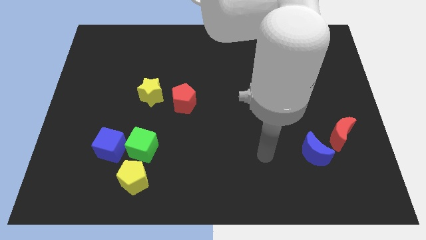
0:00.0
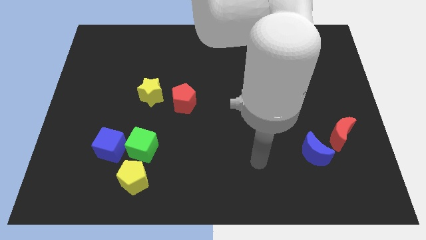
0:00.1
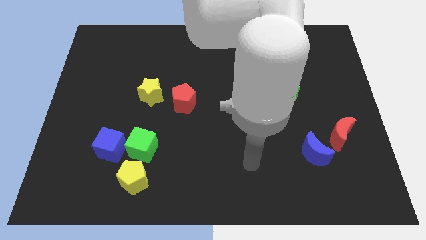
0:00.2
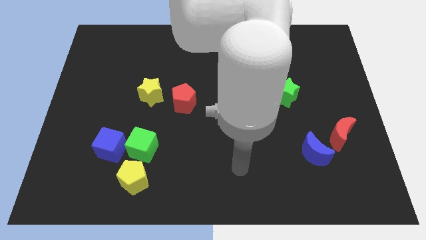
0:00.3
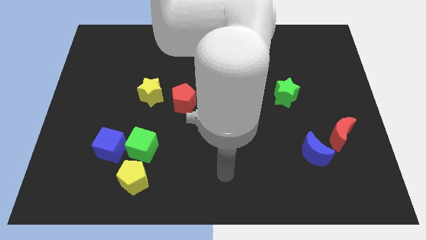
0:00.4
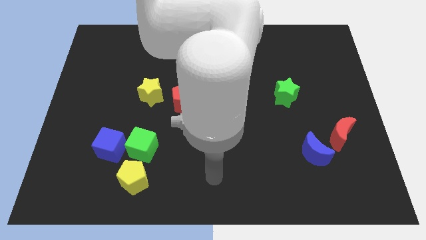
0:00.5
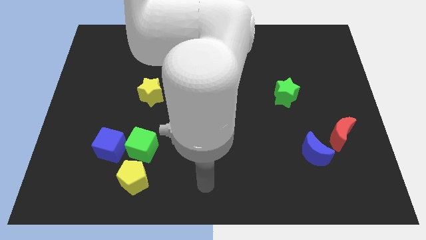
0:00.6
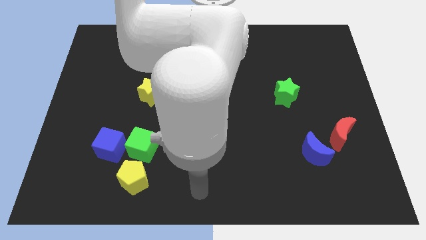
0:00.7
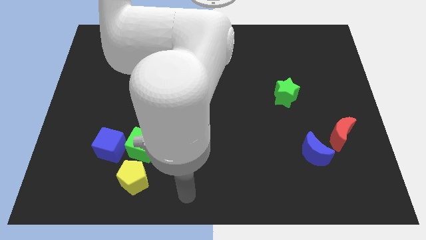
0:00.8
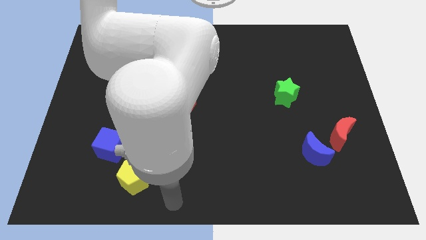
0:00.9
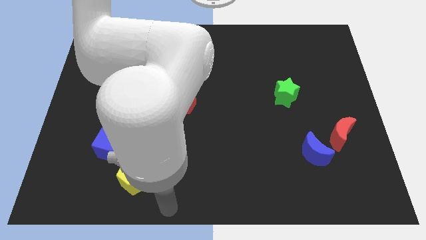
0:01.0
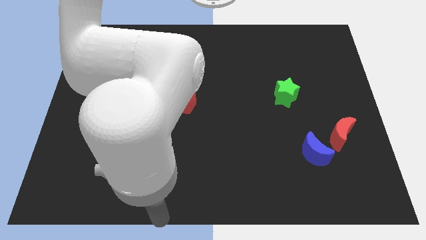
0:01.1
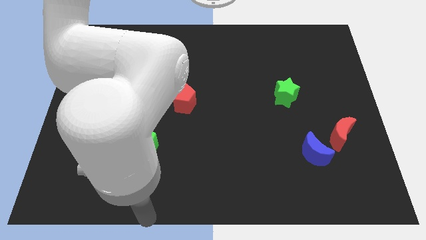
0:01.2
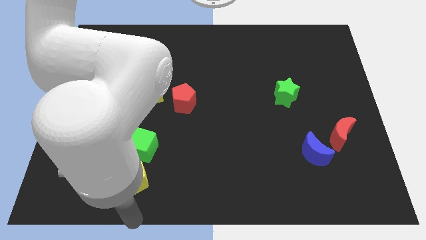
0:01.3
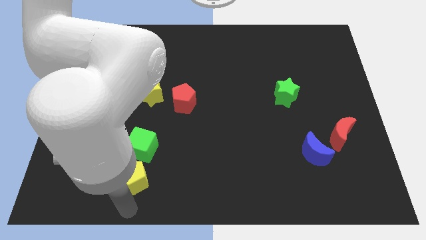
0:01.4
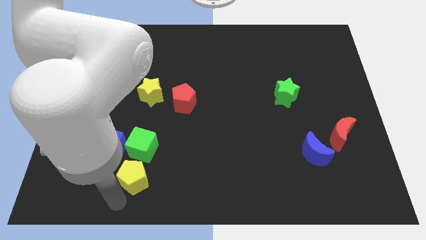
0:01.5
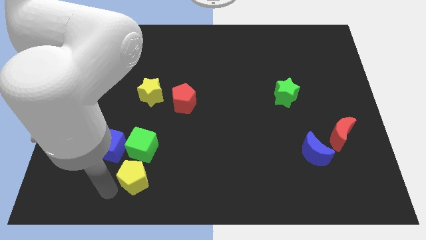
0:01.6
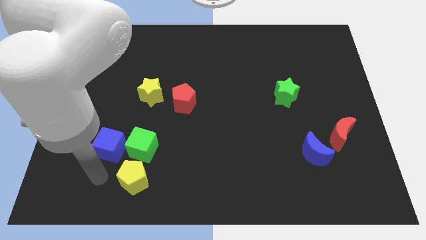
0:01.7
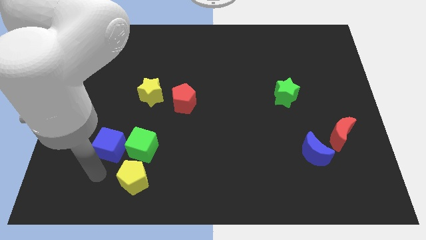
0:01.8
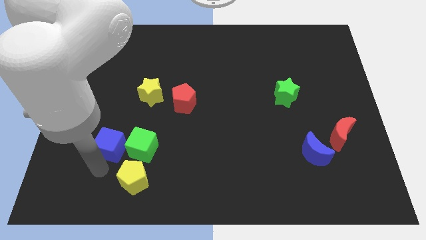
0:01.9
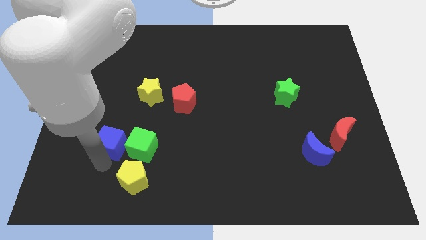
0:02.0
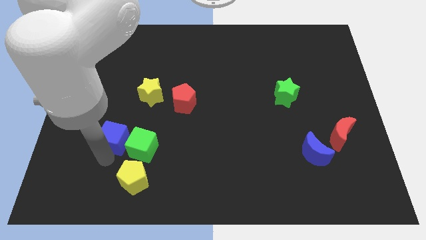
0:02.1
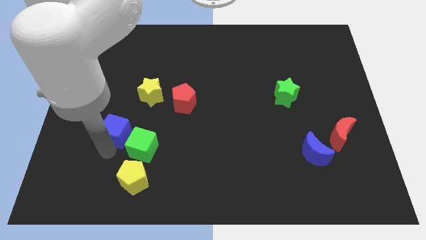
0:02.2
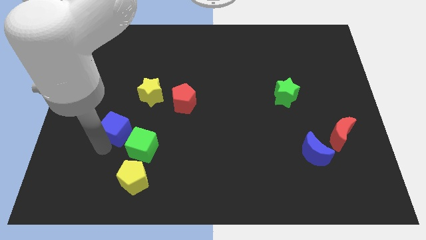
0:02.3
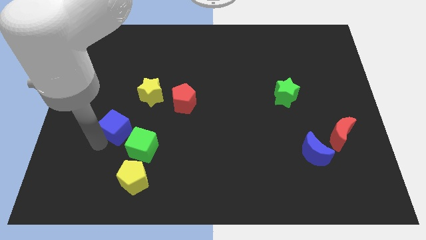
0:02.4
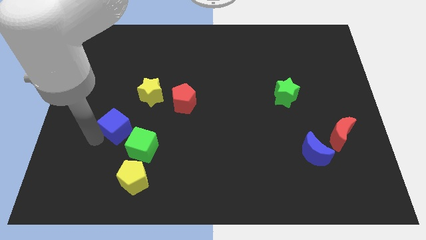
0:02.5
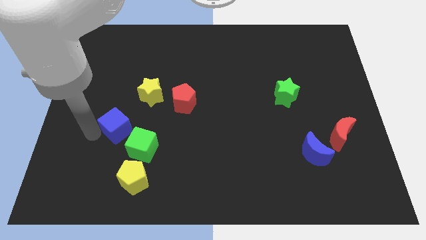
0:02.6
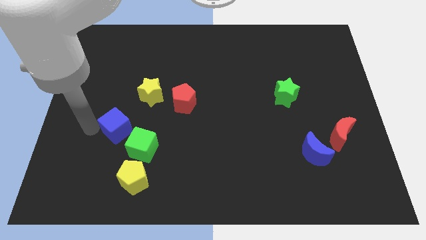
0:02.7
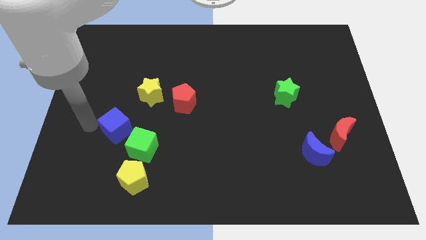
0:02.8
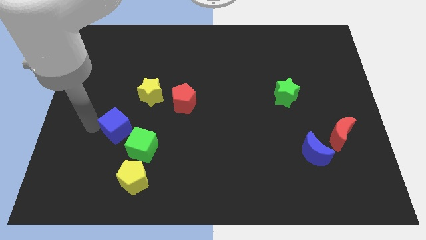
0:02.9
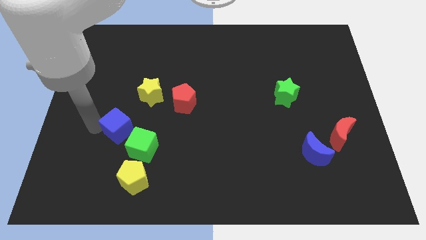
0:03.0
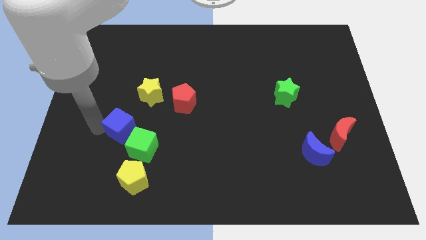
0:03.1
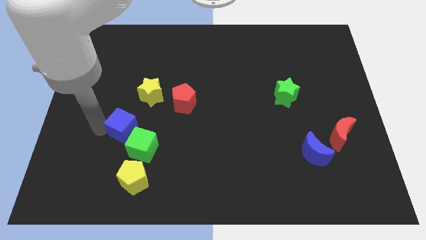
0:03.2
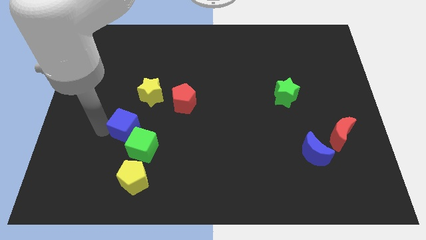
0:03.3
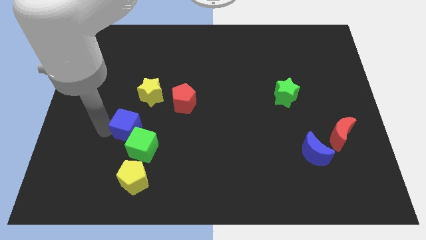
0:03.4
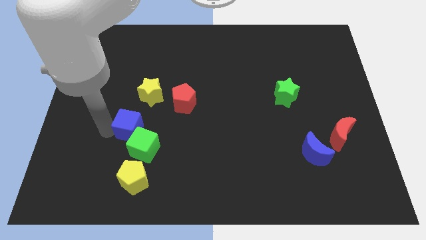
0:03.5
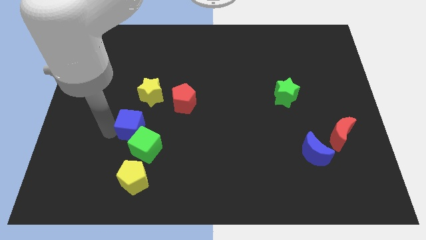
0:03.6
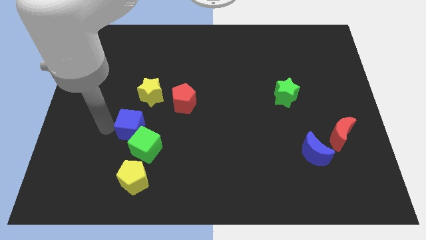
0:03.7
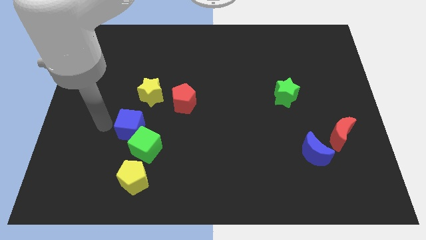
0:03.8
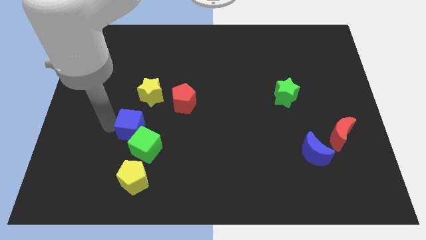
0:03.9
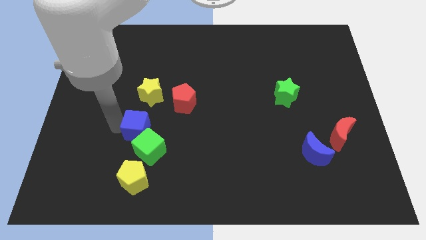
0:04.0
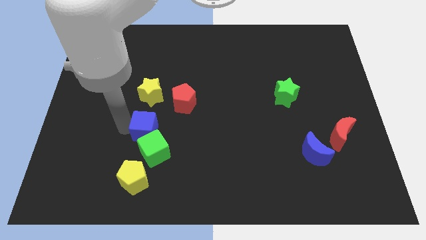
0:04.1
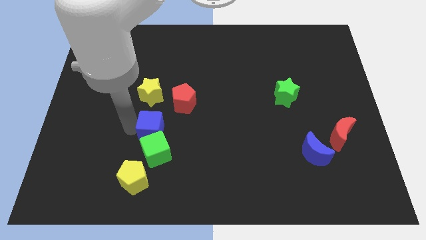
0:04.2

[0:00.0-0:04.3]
slide the blue cube right a bit

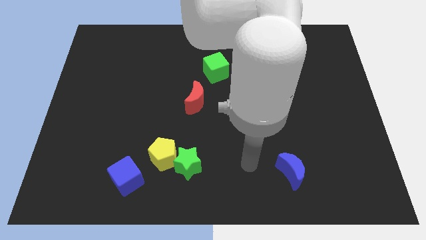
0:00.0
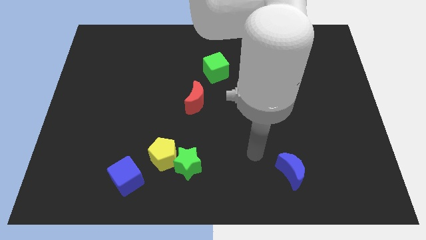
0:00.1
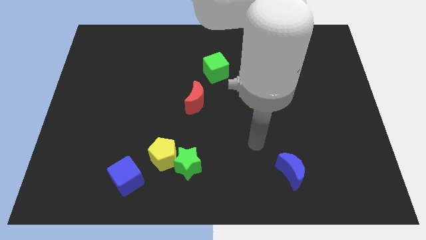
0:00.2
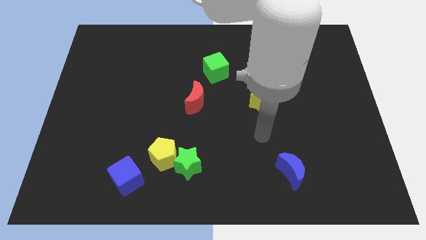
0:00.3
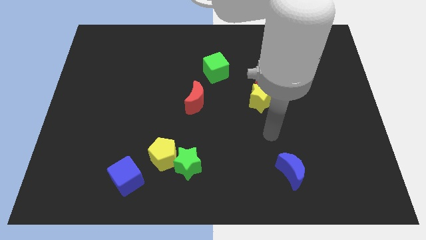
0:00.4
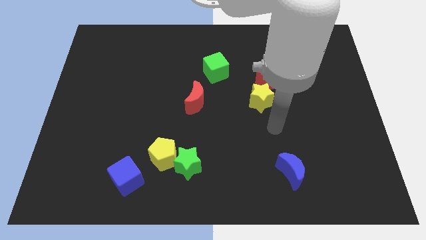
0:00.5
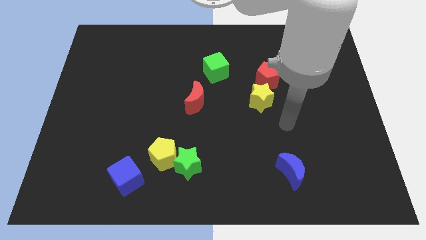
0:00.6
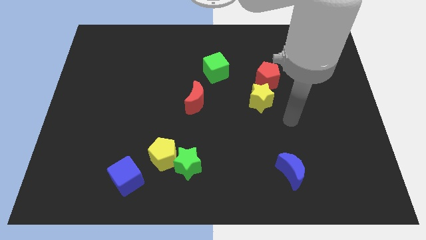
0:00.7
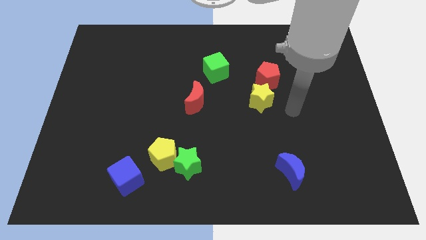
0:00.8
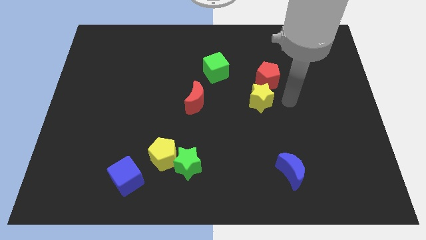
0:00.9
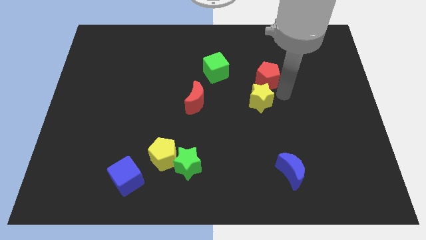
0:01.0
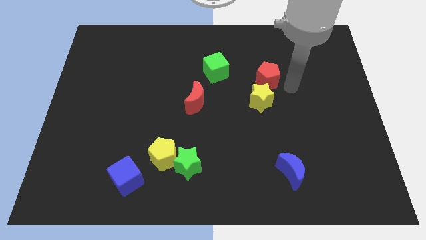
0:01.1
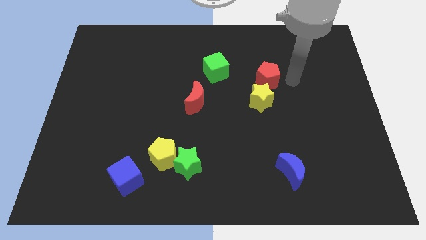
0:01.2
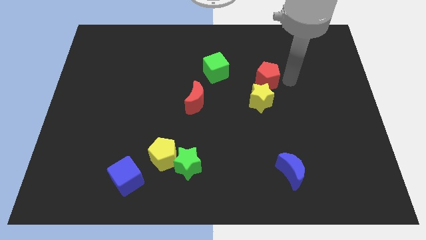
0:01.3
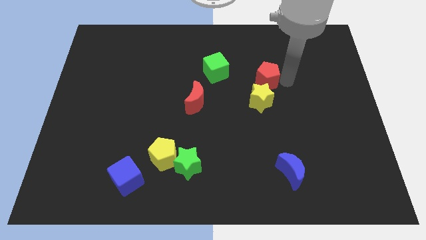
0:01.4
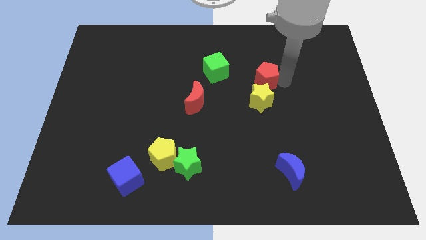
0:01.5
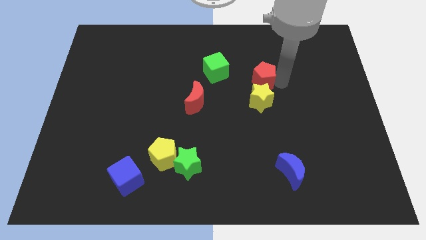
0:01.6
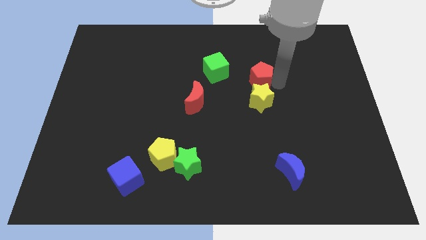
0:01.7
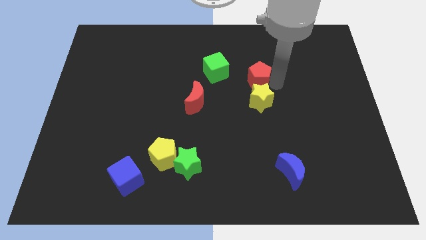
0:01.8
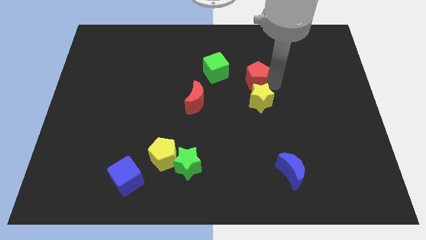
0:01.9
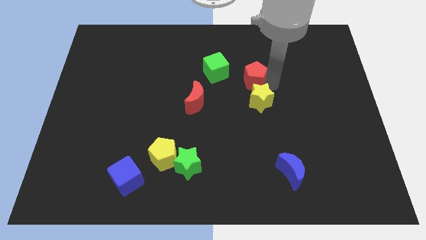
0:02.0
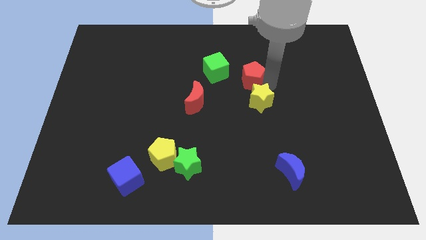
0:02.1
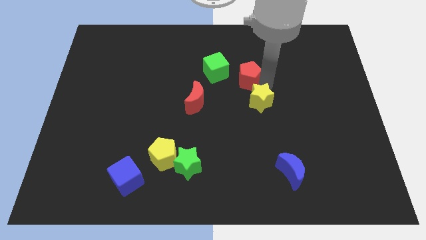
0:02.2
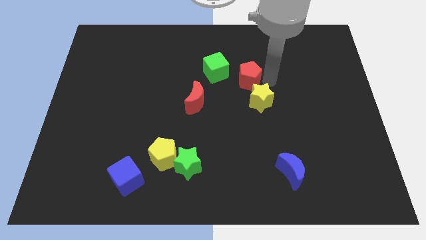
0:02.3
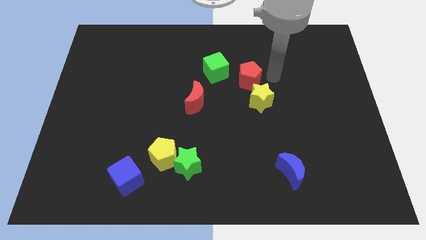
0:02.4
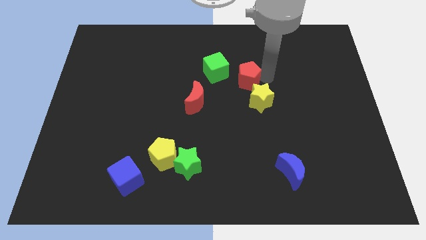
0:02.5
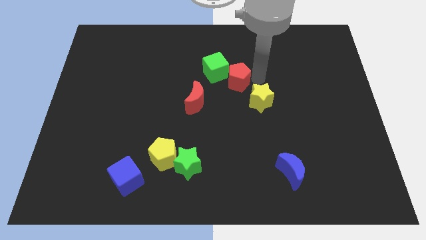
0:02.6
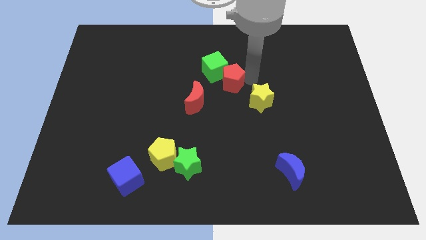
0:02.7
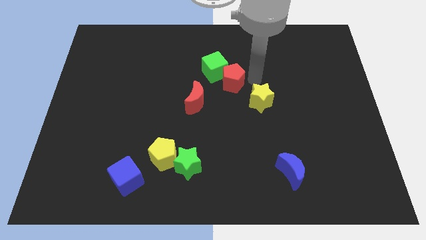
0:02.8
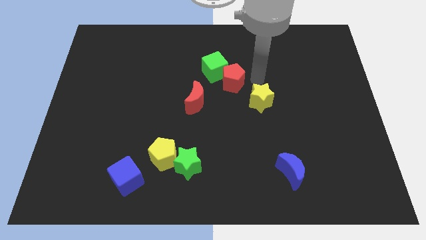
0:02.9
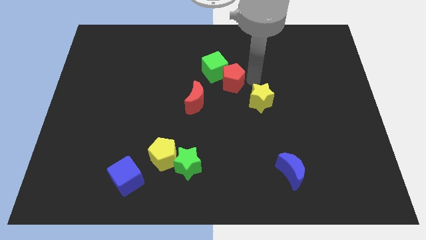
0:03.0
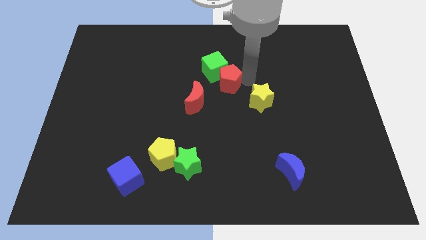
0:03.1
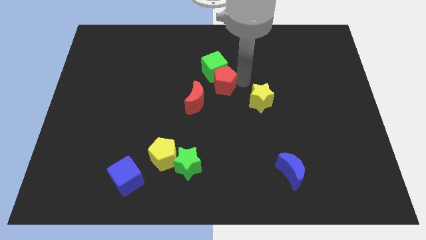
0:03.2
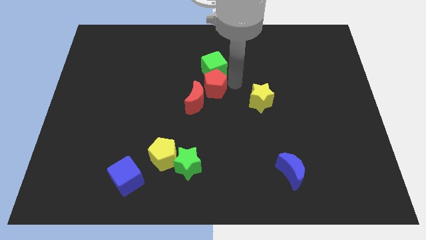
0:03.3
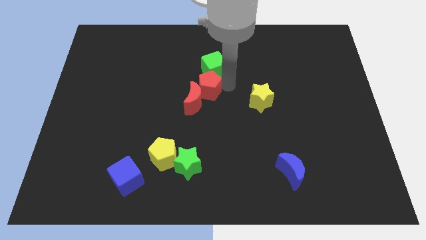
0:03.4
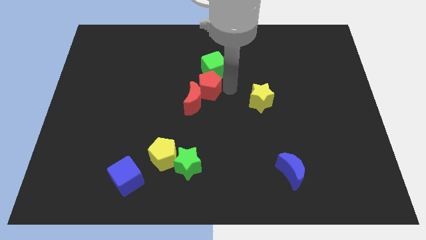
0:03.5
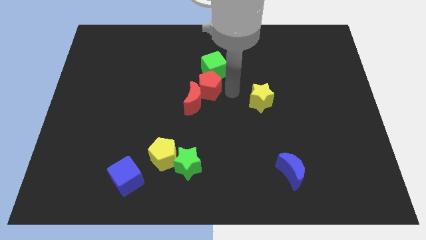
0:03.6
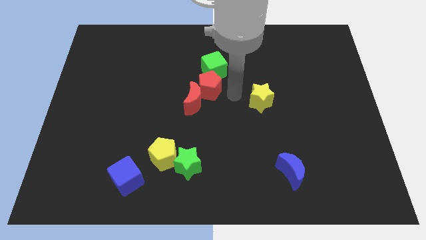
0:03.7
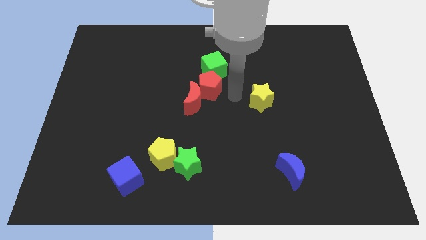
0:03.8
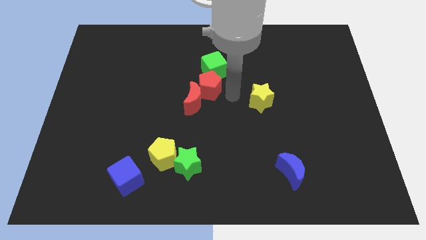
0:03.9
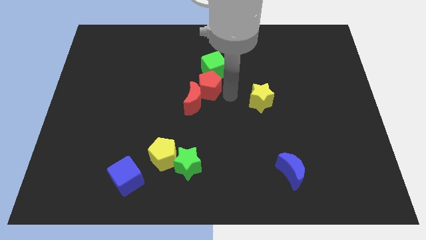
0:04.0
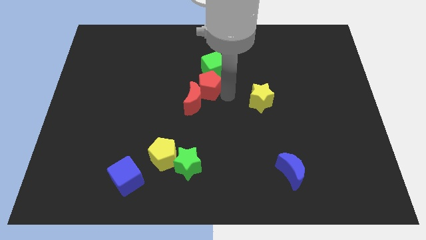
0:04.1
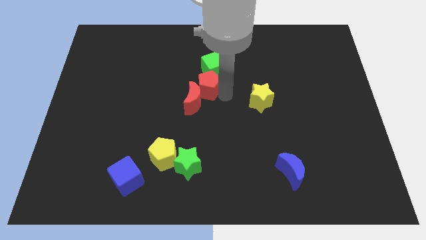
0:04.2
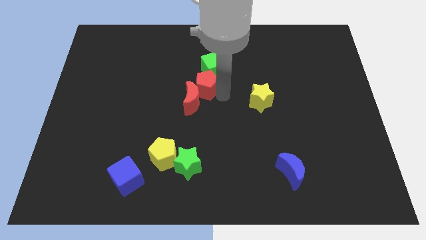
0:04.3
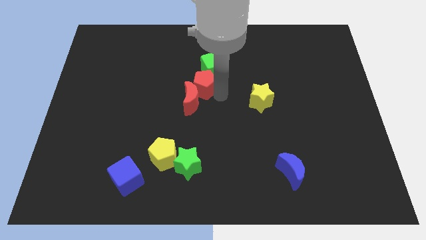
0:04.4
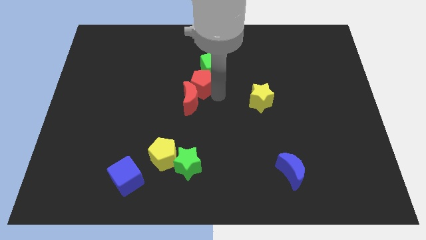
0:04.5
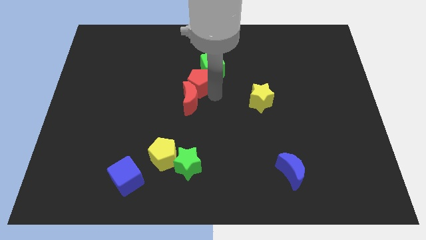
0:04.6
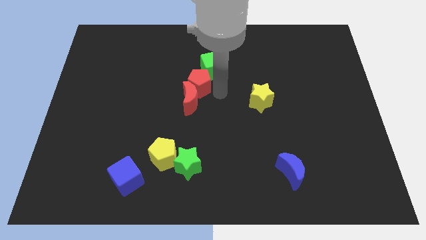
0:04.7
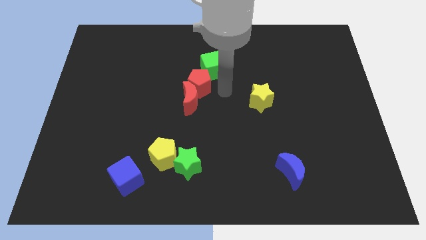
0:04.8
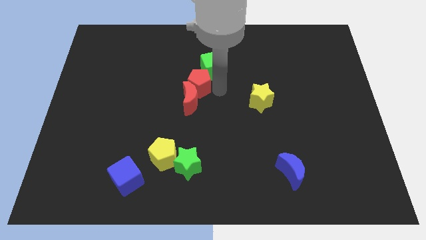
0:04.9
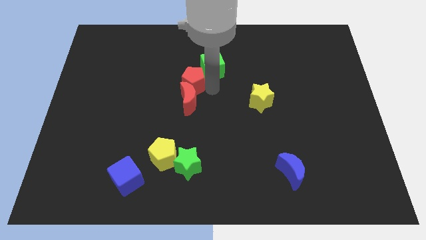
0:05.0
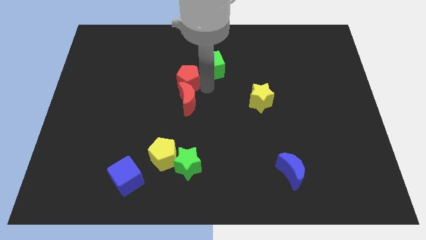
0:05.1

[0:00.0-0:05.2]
move the red pentagon left
